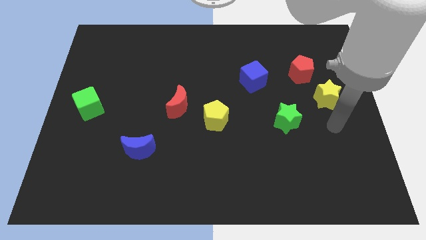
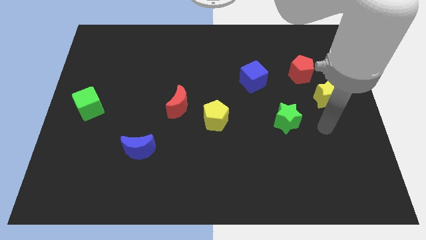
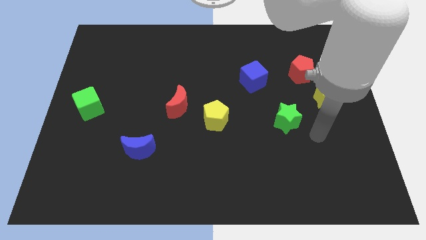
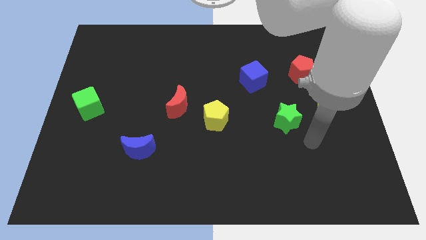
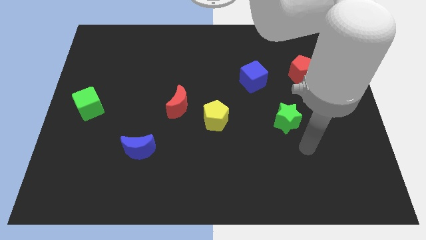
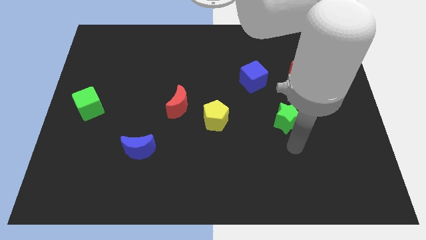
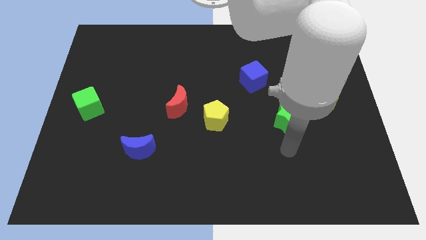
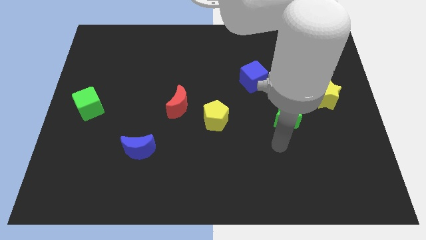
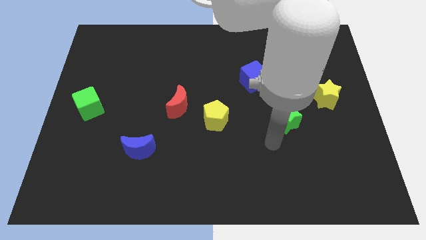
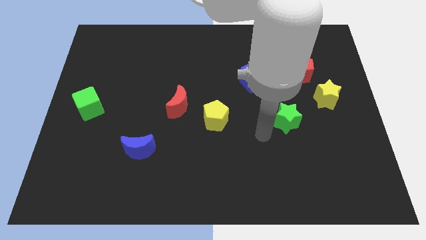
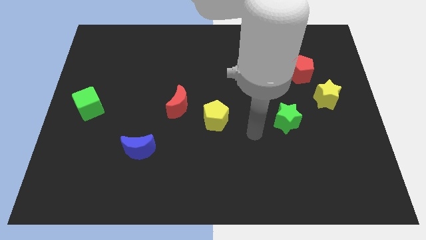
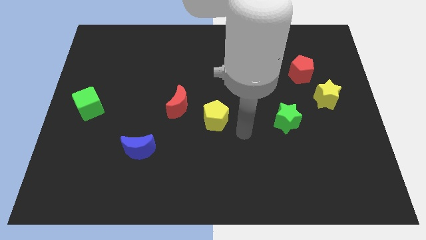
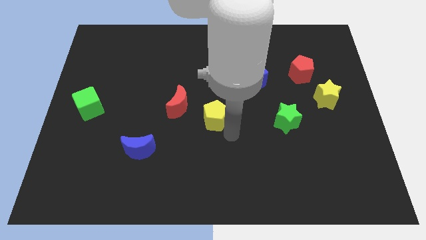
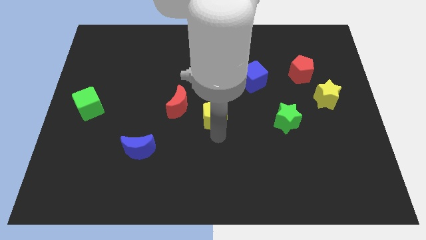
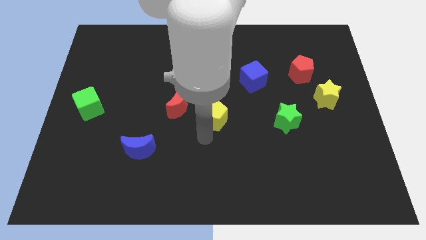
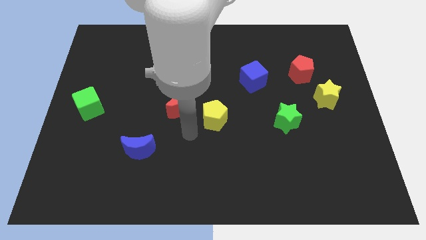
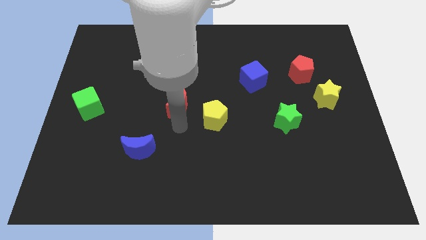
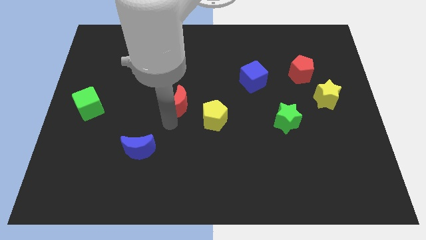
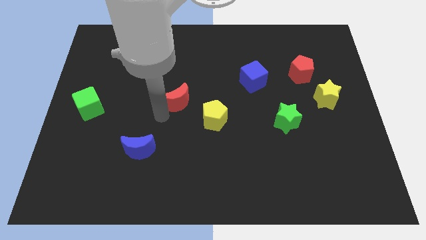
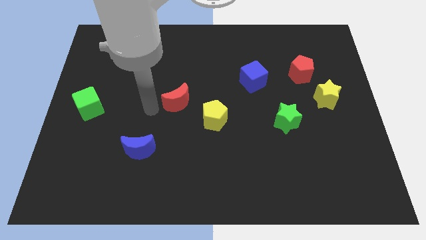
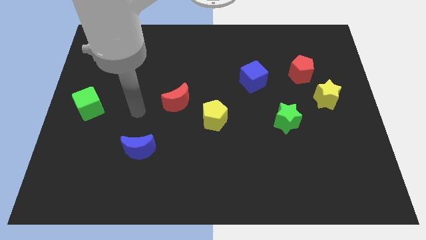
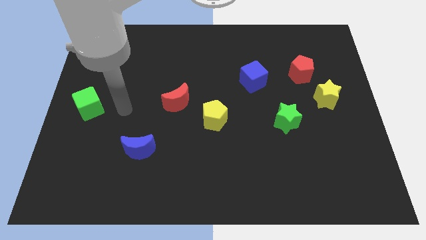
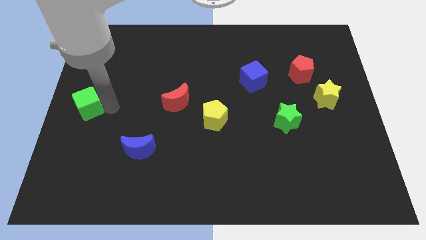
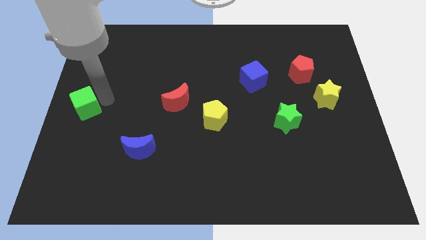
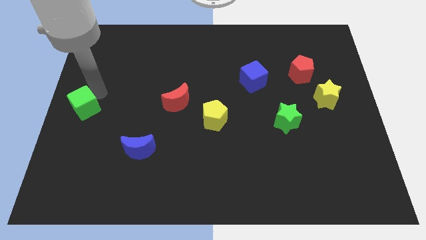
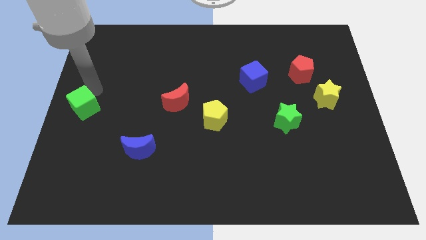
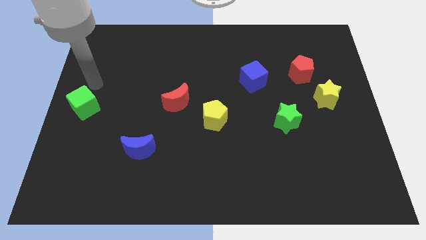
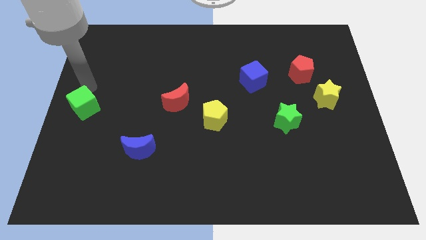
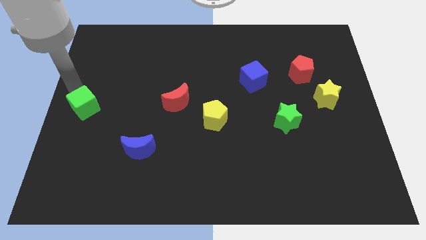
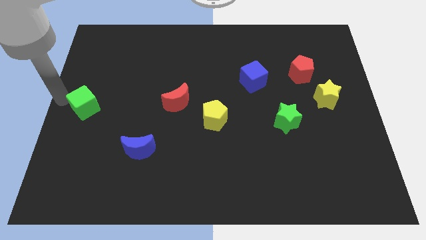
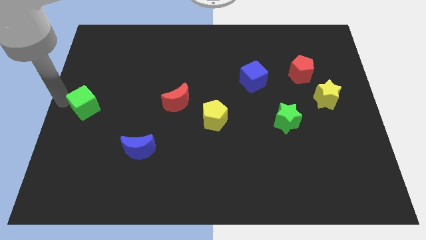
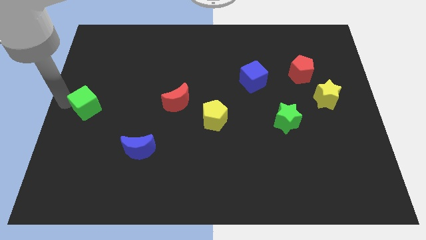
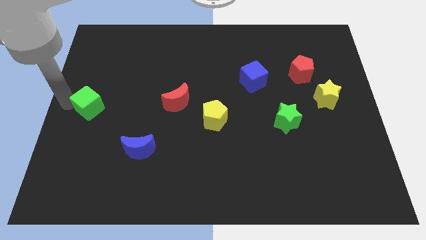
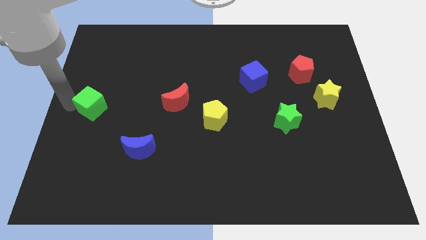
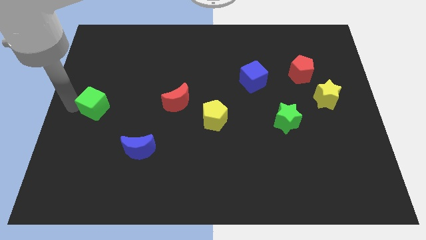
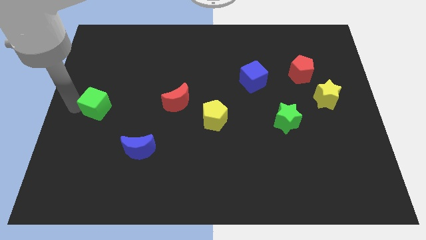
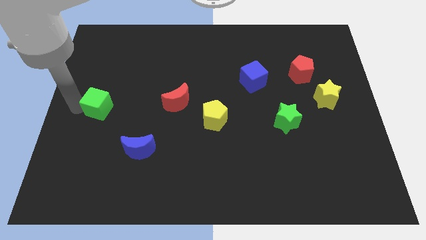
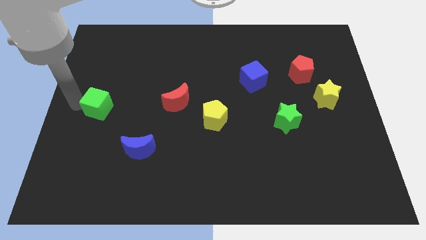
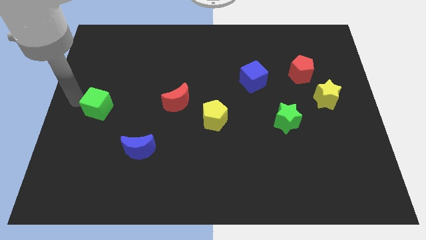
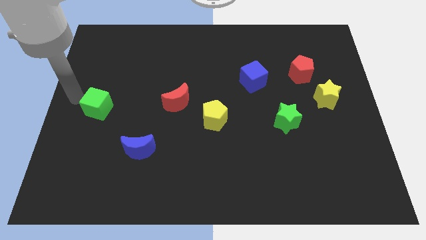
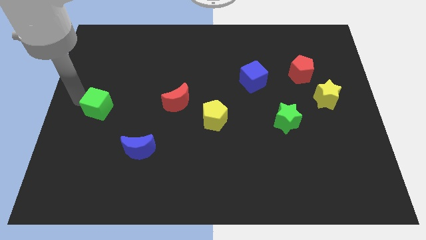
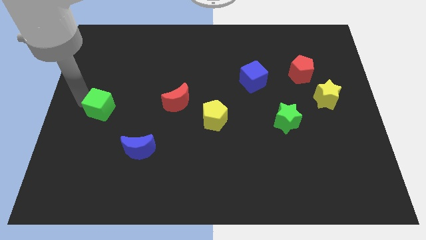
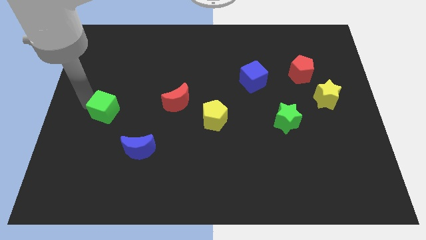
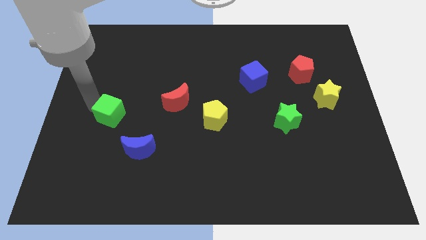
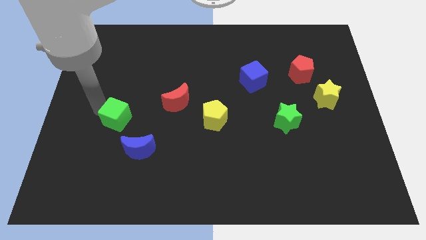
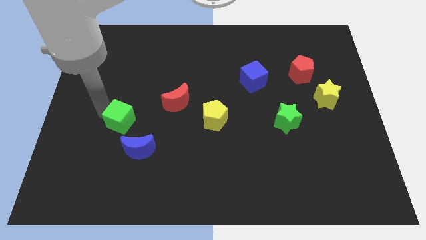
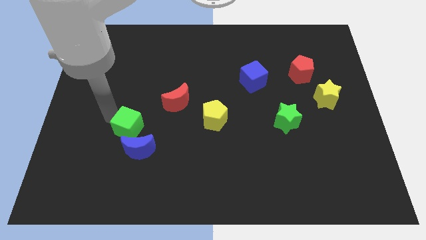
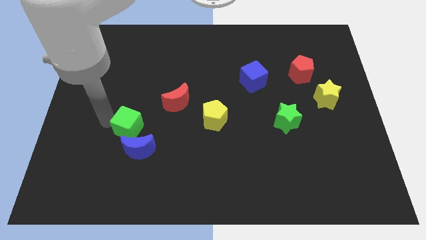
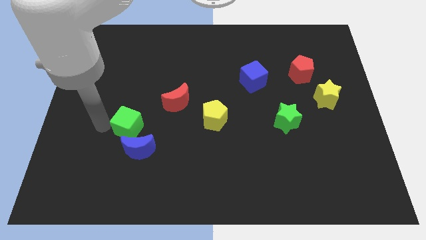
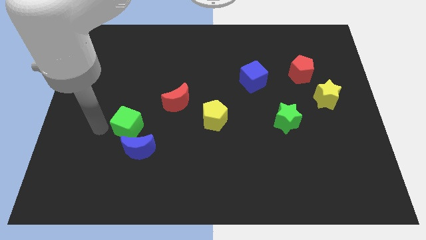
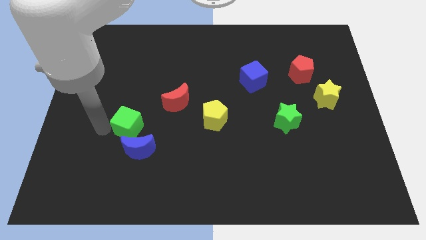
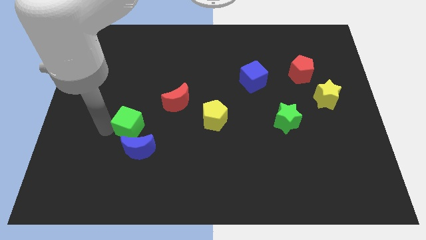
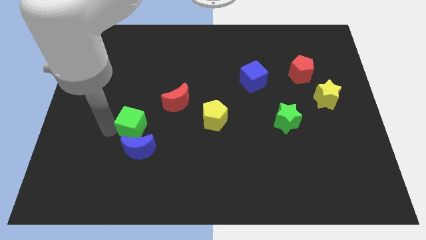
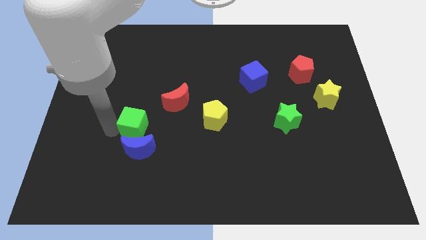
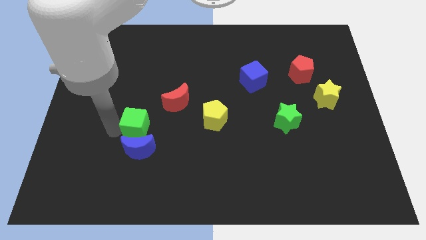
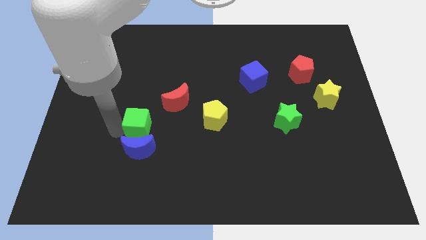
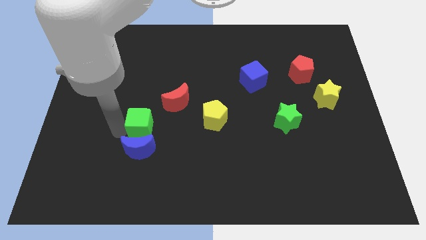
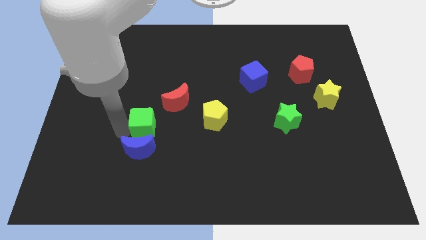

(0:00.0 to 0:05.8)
slide the green cube left of the yellow pentagon

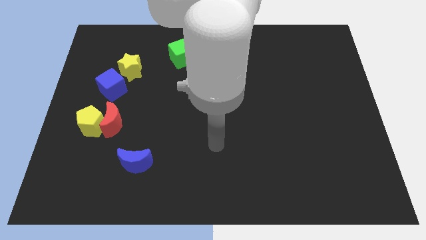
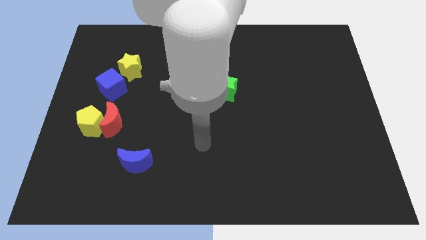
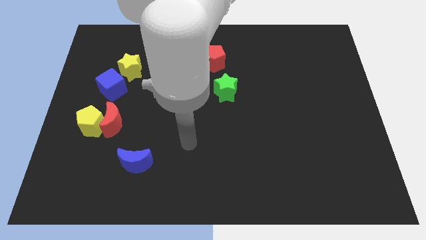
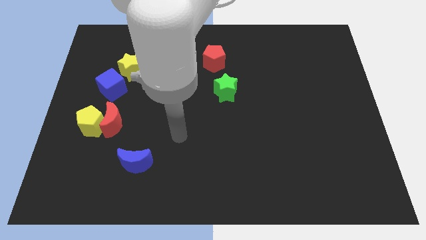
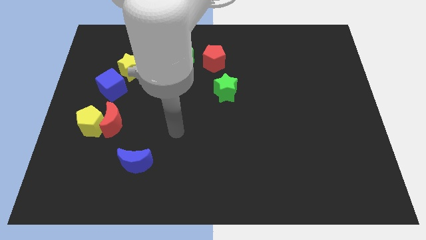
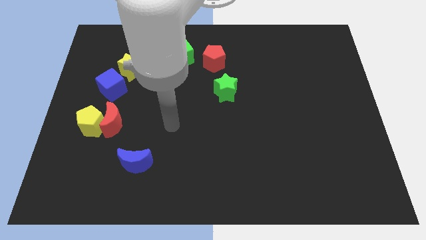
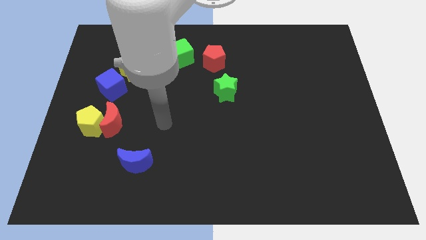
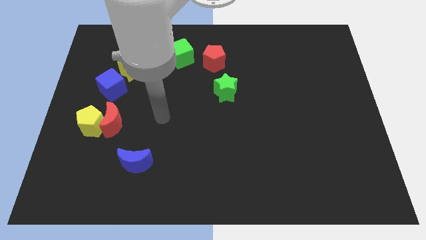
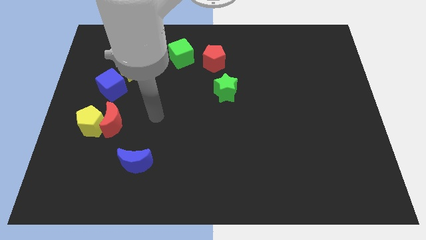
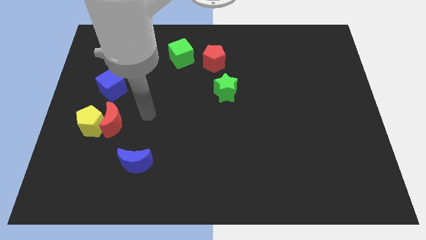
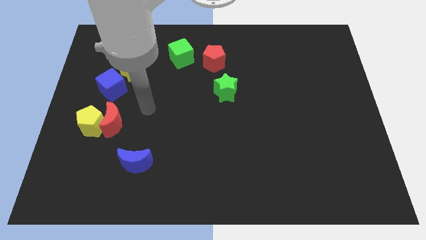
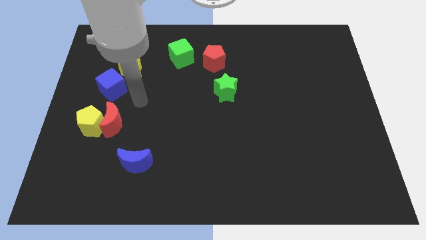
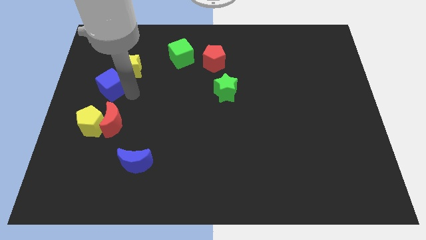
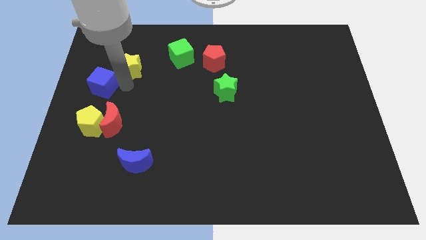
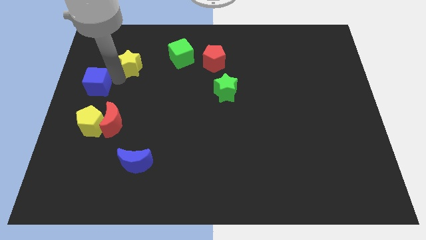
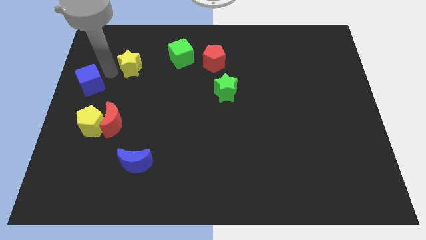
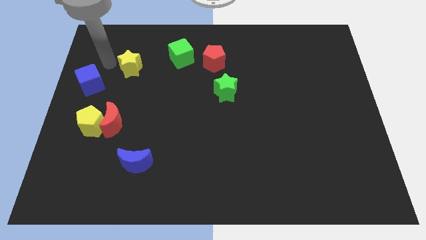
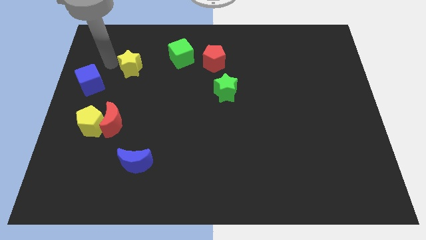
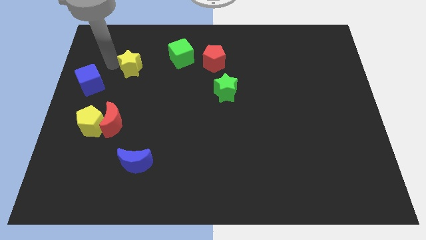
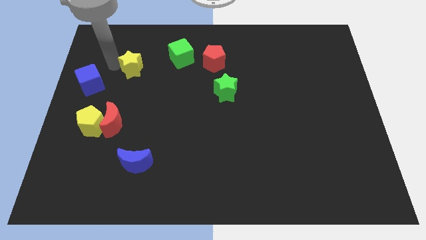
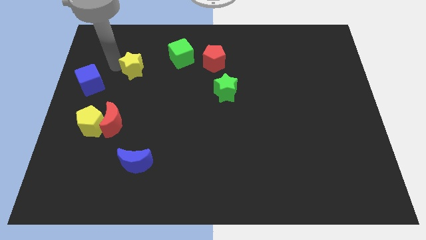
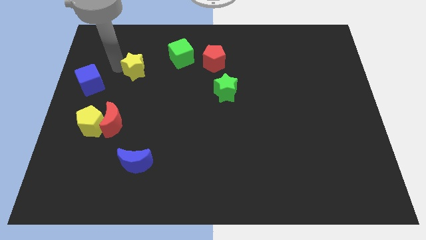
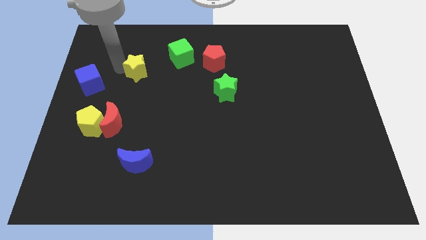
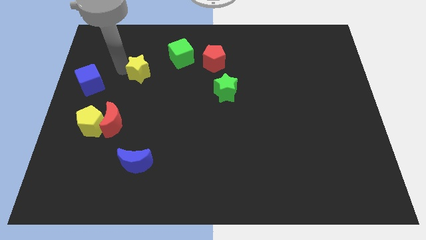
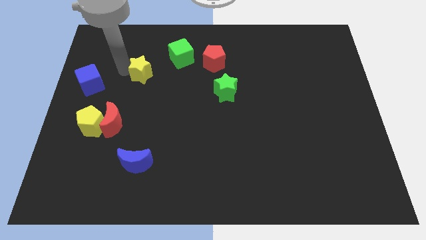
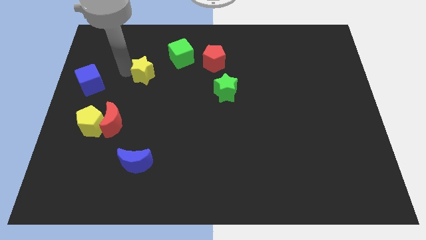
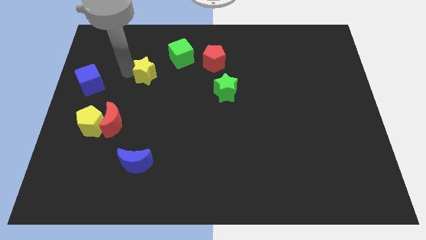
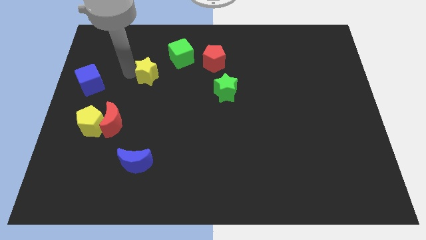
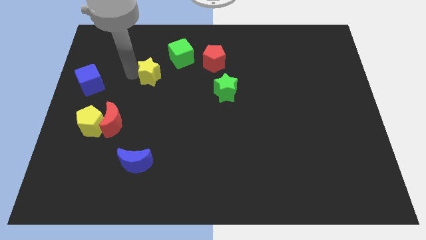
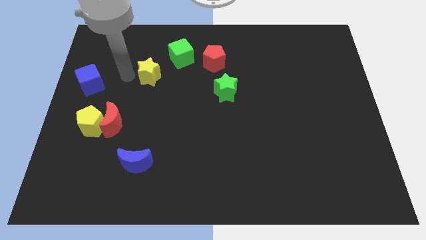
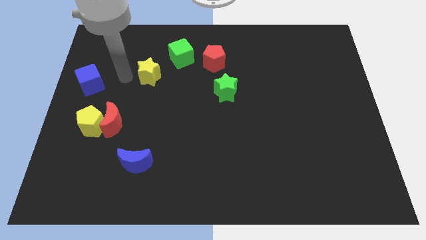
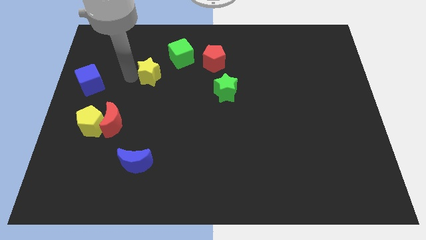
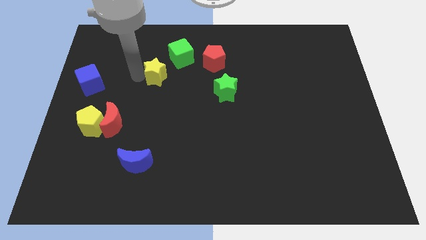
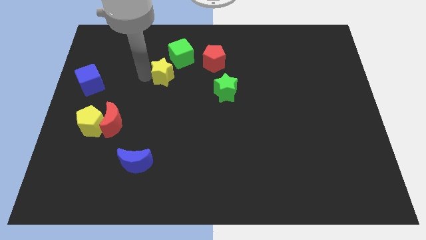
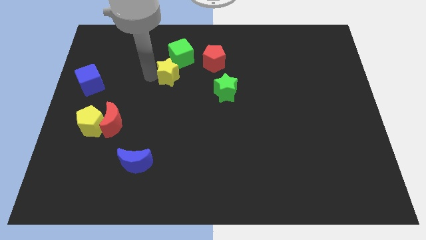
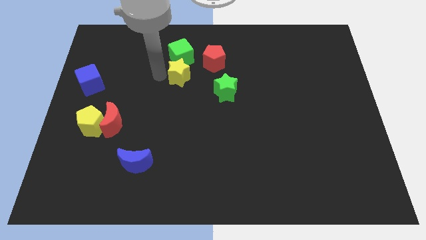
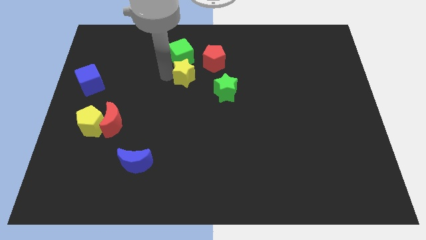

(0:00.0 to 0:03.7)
move the yellow star to the top left of the green star
